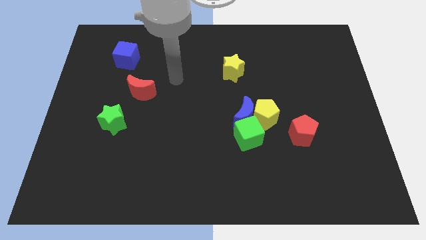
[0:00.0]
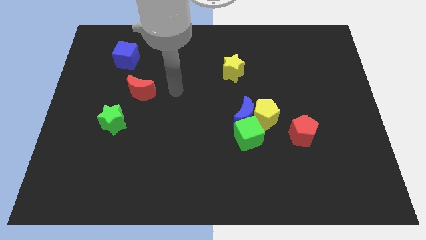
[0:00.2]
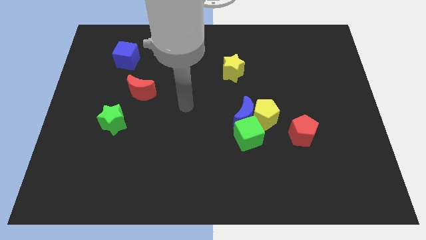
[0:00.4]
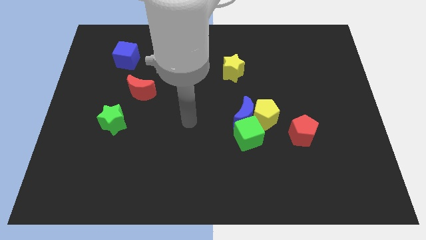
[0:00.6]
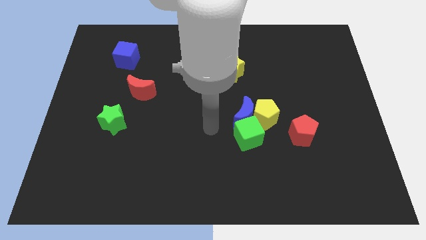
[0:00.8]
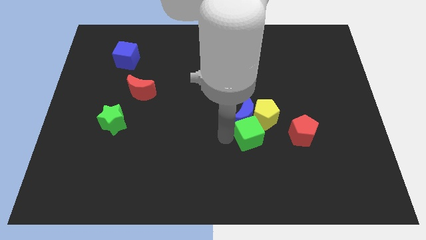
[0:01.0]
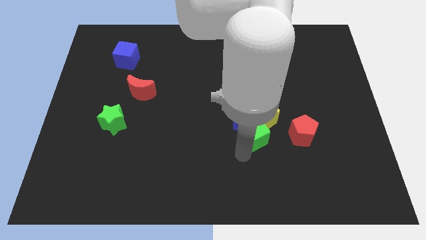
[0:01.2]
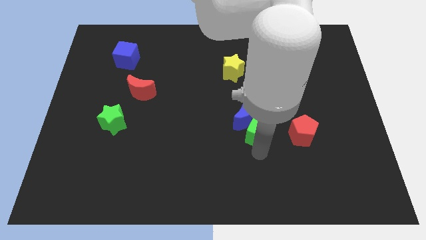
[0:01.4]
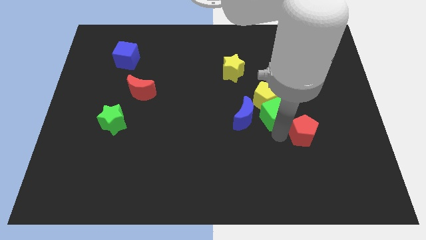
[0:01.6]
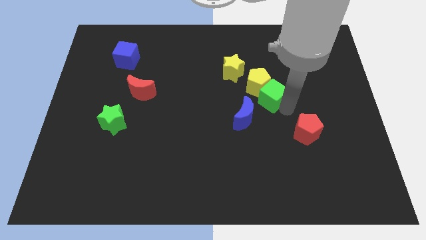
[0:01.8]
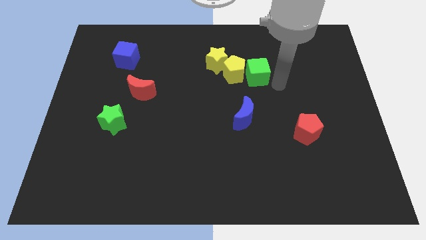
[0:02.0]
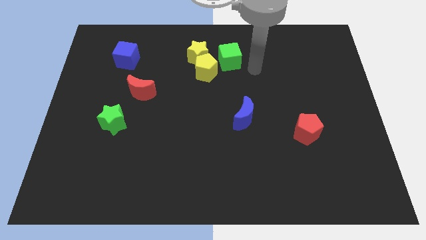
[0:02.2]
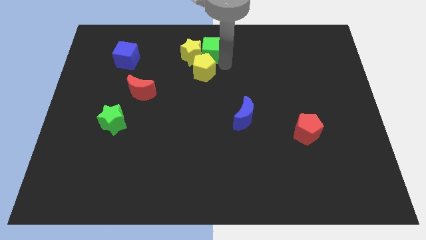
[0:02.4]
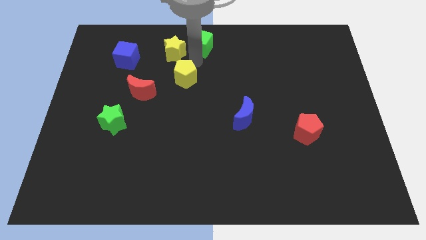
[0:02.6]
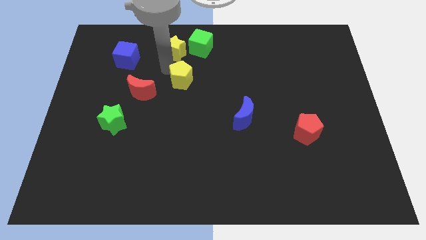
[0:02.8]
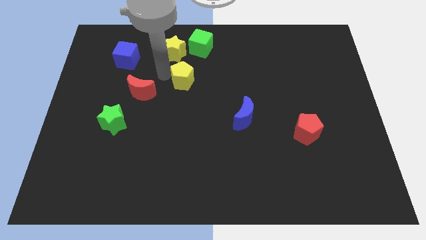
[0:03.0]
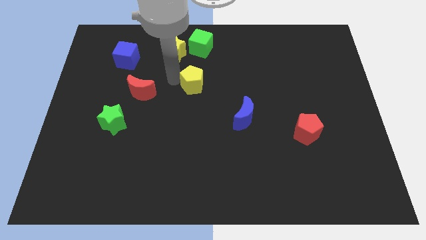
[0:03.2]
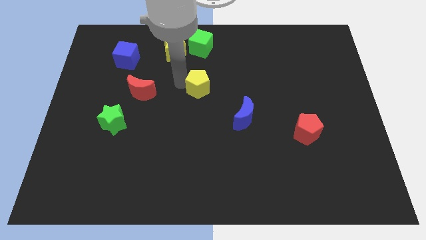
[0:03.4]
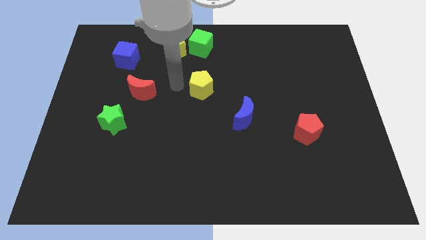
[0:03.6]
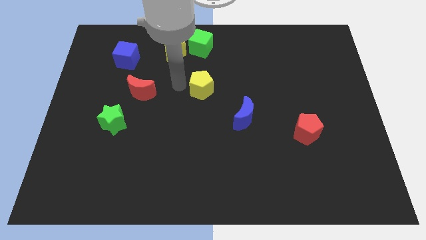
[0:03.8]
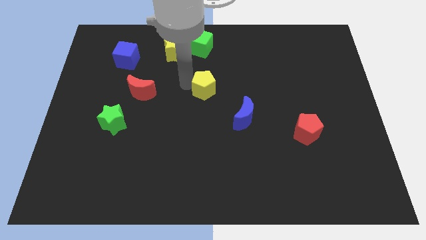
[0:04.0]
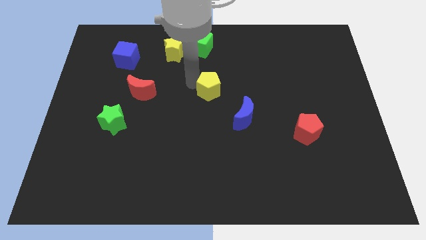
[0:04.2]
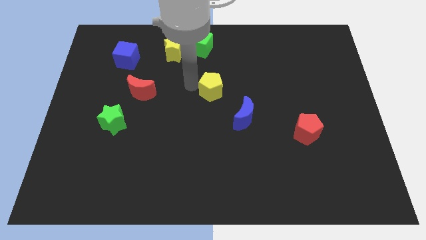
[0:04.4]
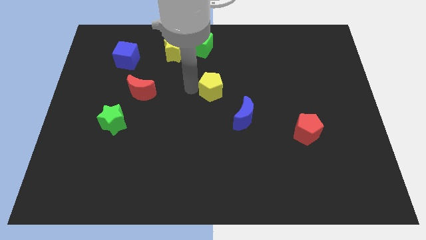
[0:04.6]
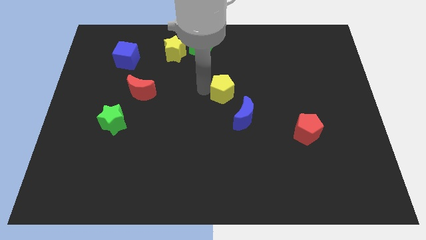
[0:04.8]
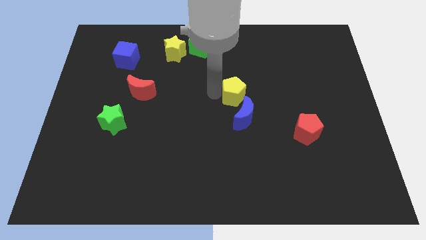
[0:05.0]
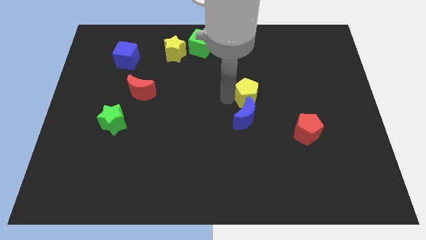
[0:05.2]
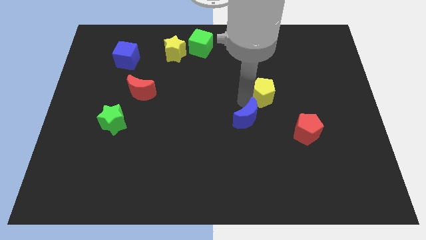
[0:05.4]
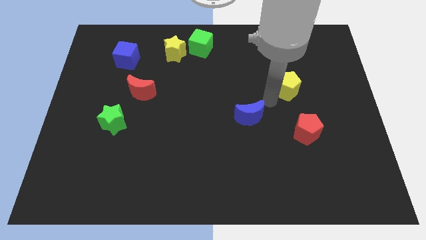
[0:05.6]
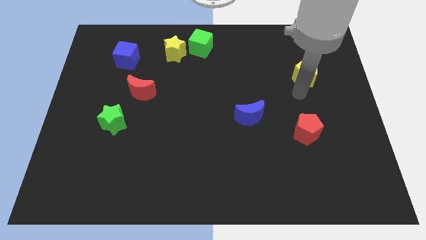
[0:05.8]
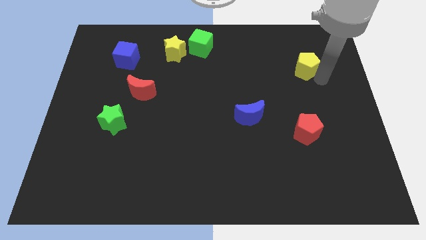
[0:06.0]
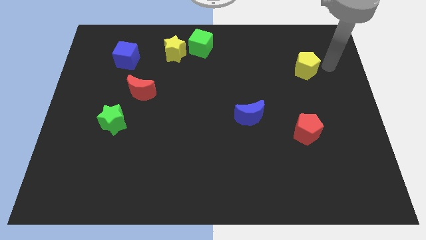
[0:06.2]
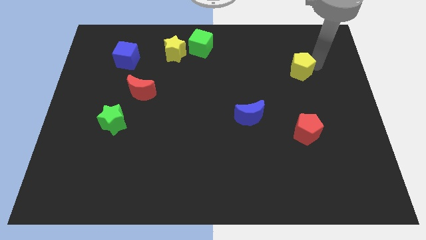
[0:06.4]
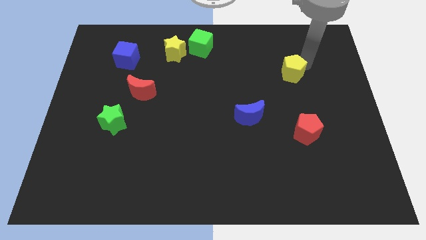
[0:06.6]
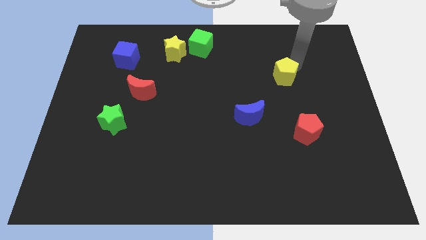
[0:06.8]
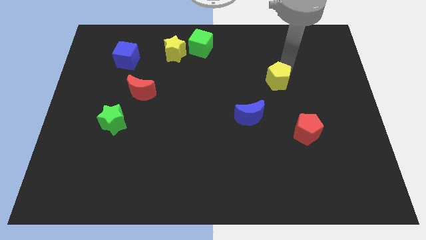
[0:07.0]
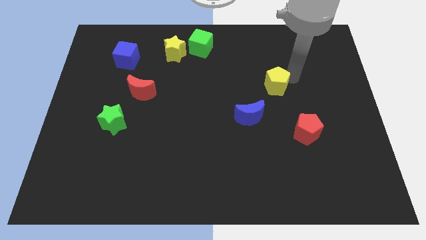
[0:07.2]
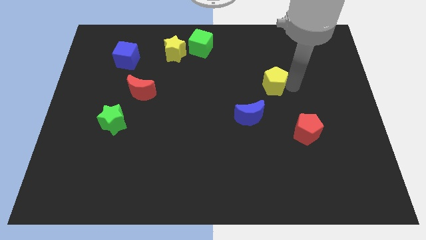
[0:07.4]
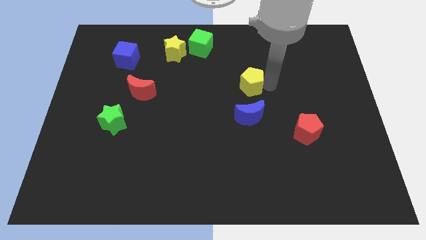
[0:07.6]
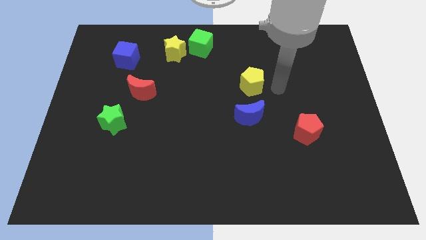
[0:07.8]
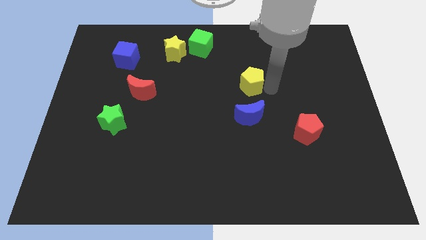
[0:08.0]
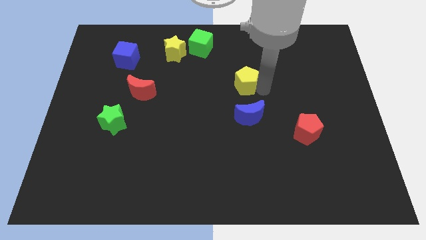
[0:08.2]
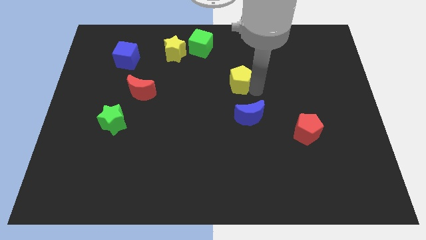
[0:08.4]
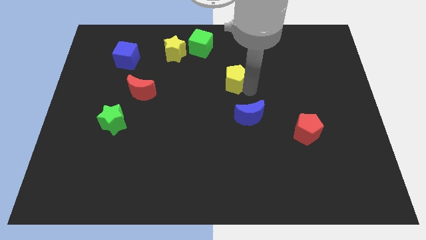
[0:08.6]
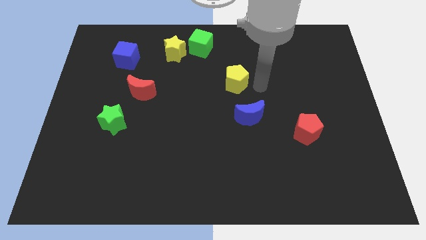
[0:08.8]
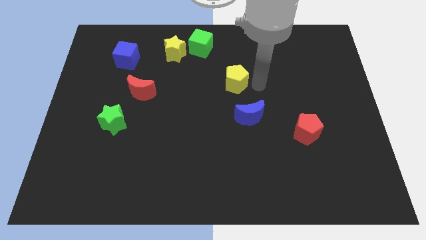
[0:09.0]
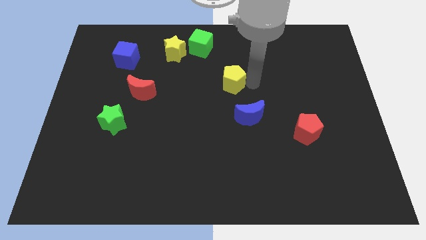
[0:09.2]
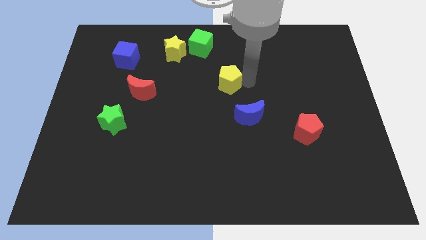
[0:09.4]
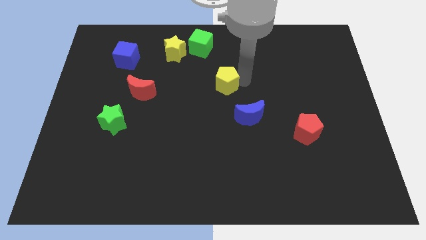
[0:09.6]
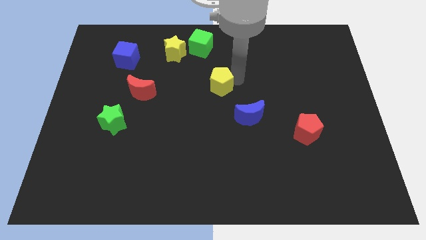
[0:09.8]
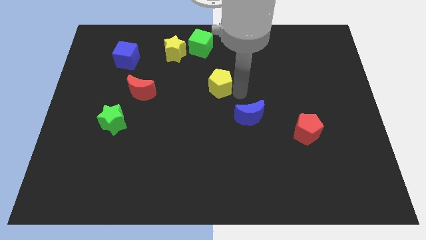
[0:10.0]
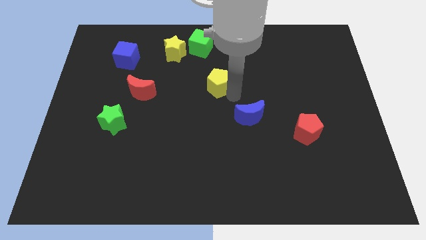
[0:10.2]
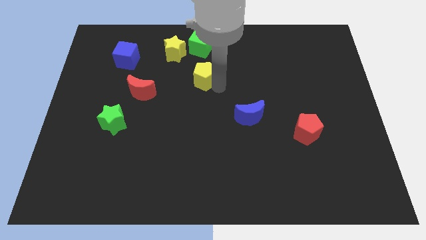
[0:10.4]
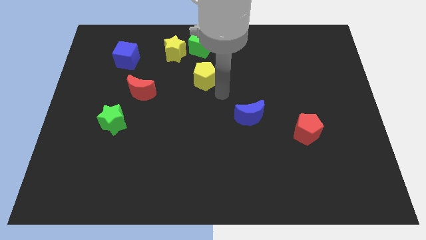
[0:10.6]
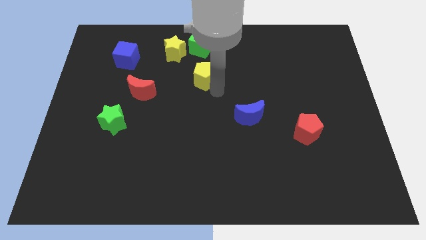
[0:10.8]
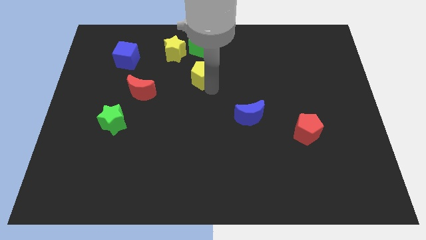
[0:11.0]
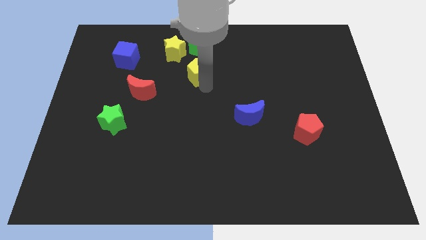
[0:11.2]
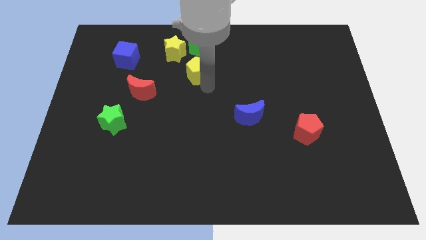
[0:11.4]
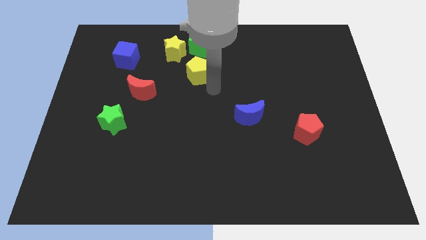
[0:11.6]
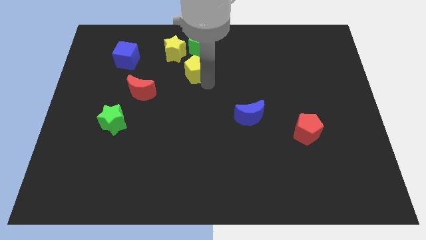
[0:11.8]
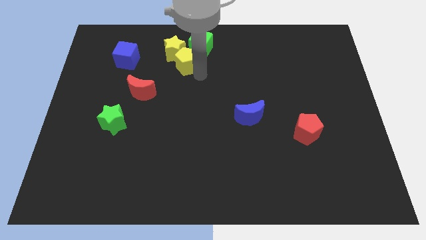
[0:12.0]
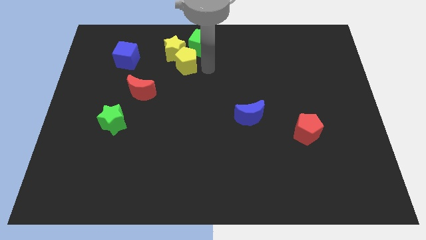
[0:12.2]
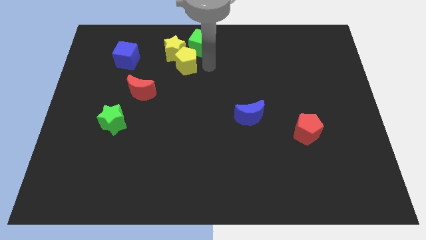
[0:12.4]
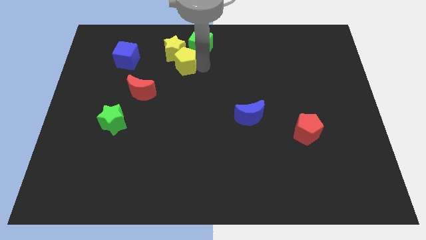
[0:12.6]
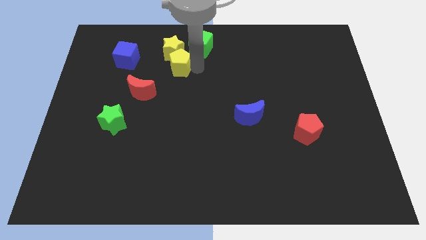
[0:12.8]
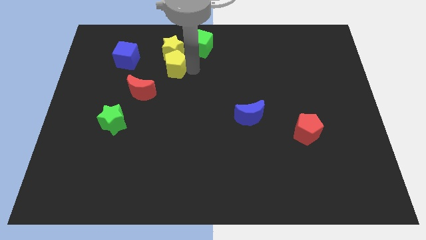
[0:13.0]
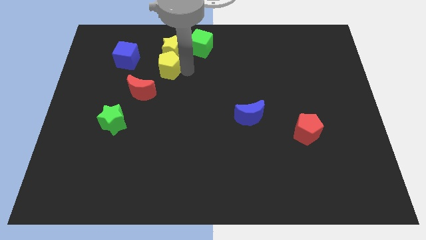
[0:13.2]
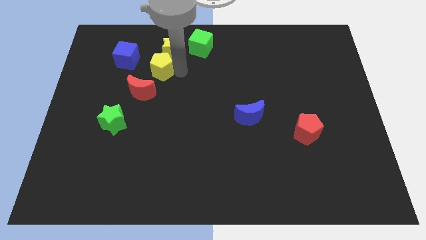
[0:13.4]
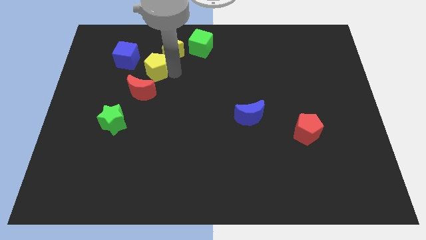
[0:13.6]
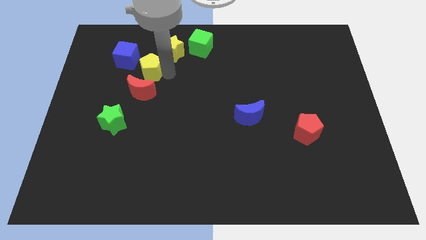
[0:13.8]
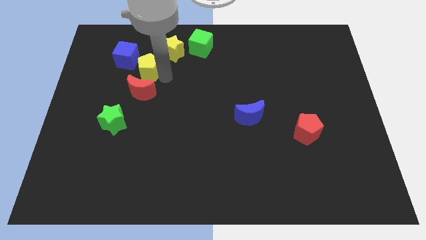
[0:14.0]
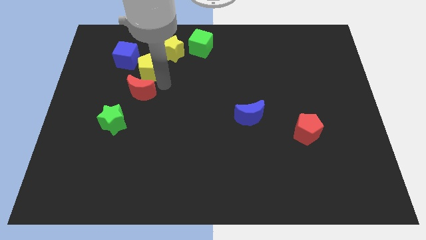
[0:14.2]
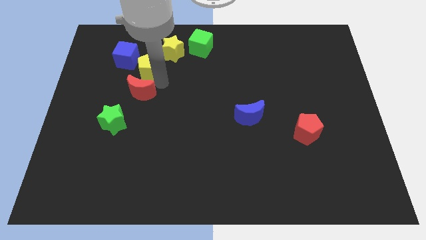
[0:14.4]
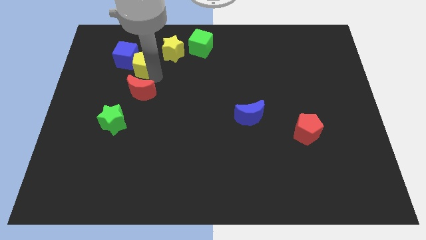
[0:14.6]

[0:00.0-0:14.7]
slide the yellow pentagon to the blue cube
